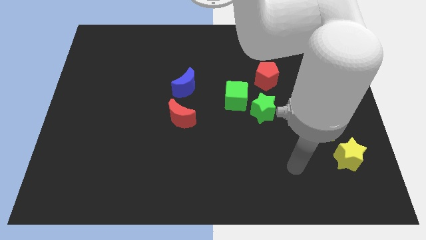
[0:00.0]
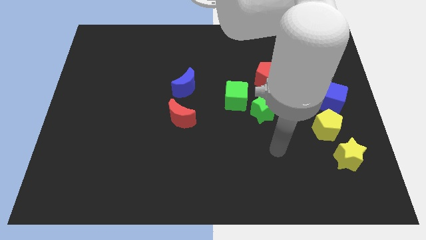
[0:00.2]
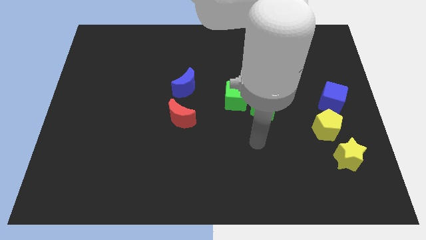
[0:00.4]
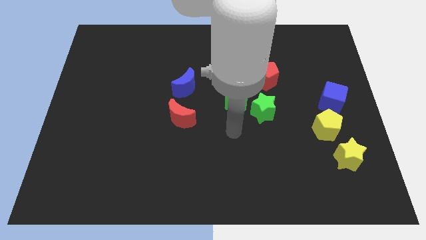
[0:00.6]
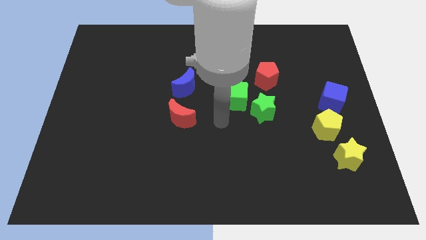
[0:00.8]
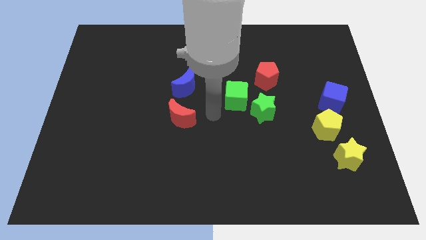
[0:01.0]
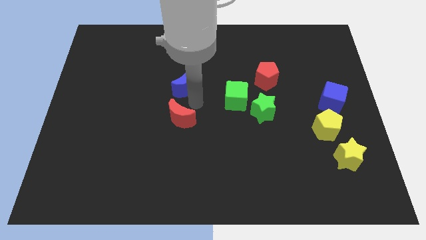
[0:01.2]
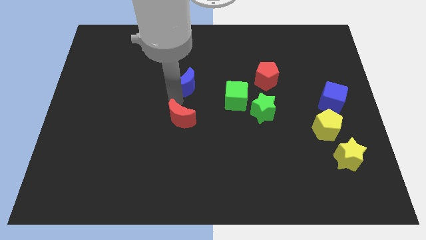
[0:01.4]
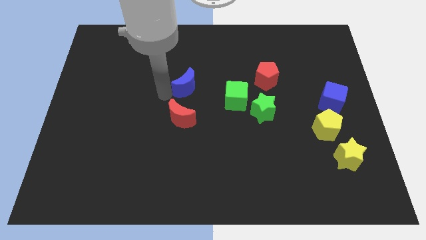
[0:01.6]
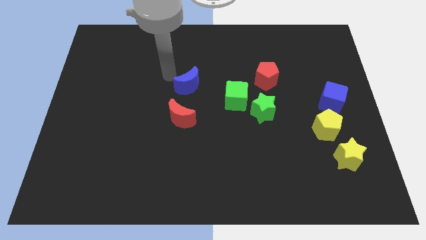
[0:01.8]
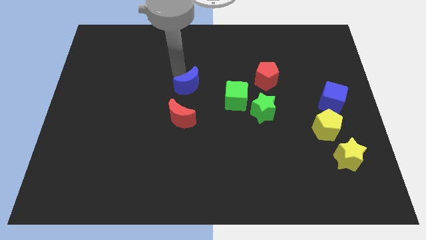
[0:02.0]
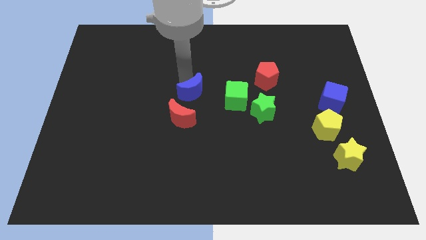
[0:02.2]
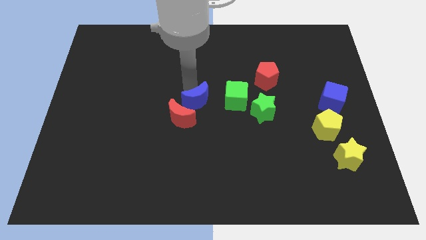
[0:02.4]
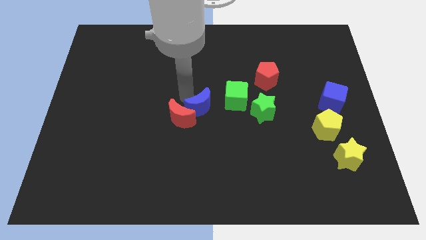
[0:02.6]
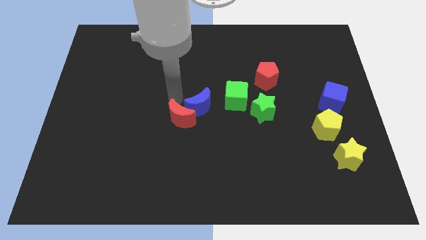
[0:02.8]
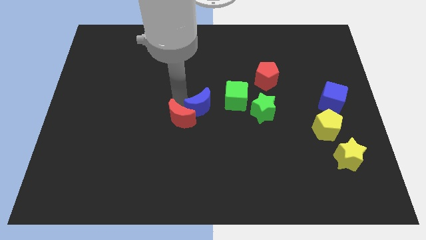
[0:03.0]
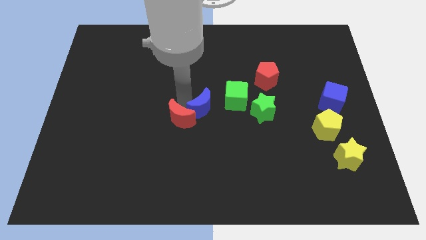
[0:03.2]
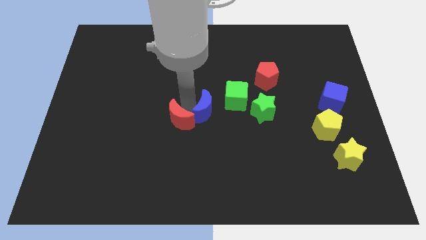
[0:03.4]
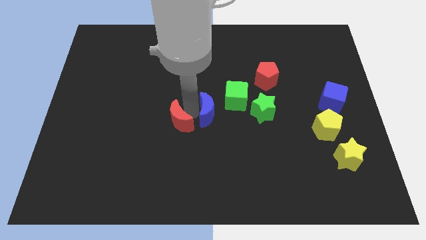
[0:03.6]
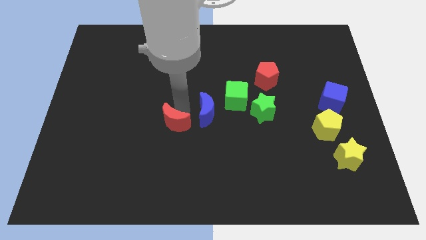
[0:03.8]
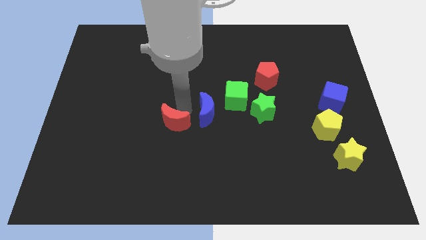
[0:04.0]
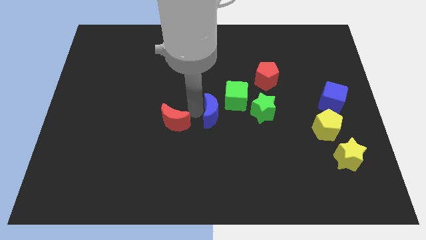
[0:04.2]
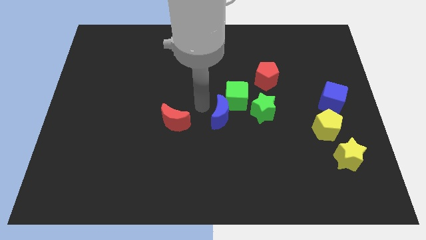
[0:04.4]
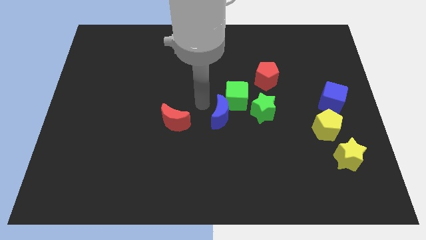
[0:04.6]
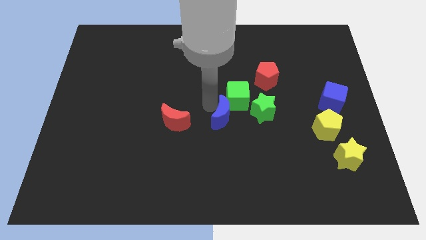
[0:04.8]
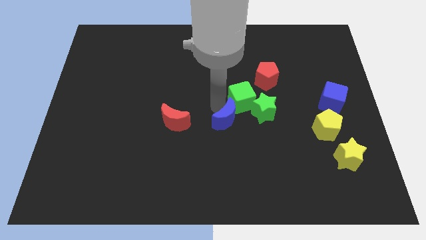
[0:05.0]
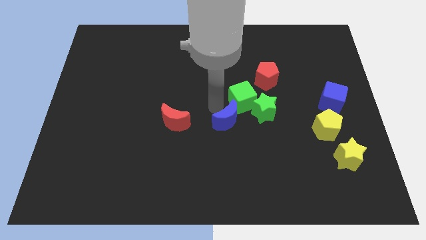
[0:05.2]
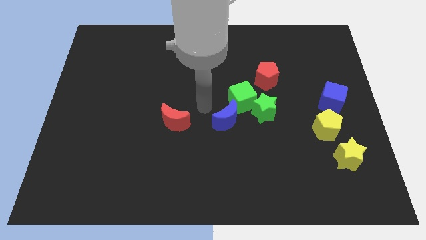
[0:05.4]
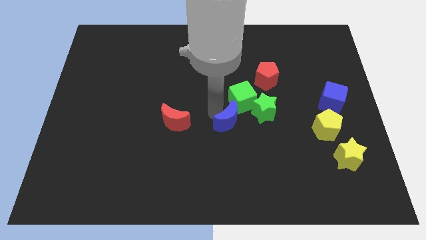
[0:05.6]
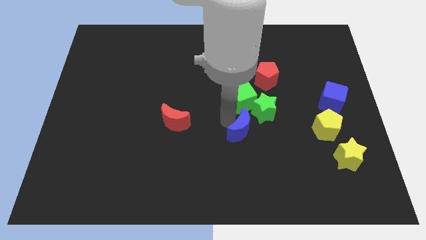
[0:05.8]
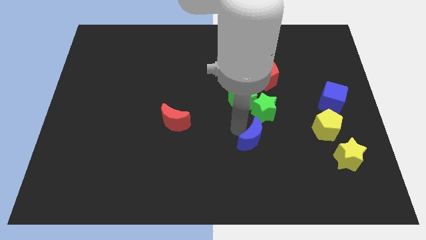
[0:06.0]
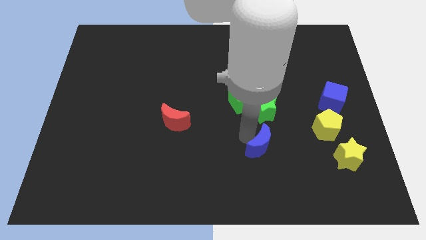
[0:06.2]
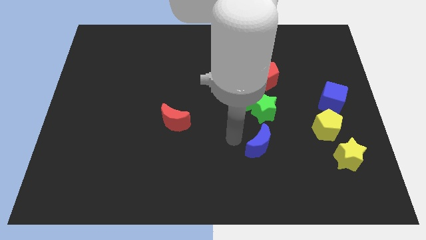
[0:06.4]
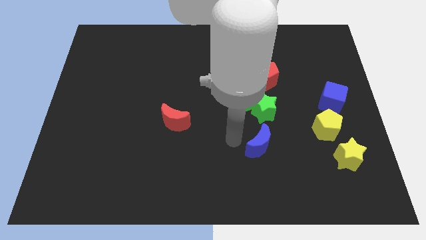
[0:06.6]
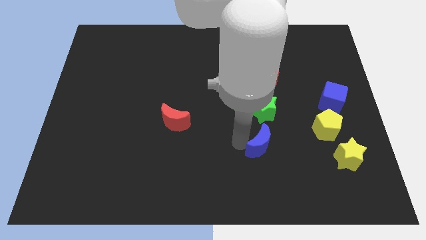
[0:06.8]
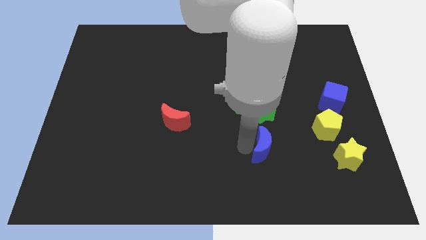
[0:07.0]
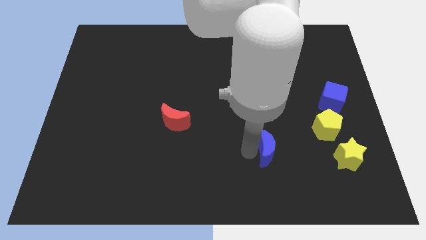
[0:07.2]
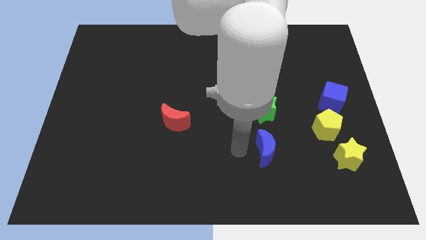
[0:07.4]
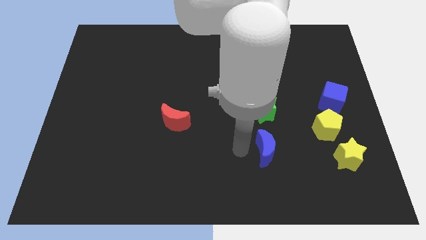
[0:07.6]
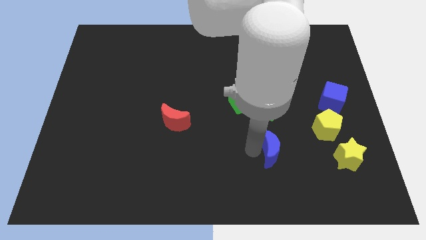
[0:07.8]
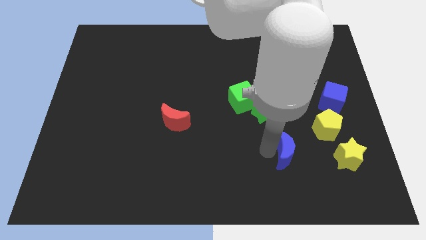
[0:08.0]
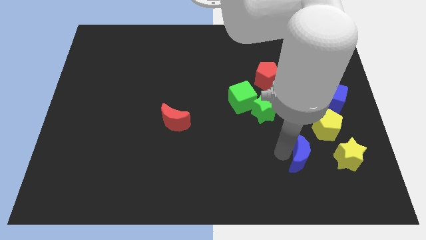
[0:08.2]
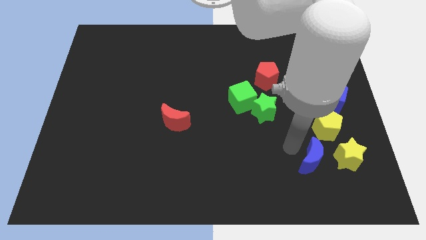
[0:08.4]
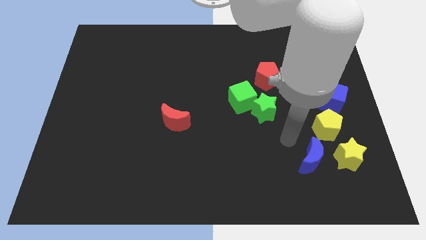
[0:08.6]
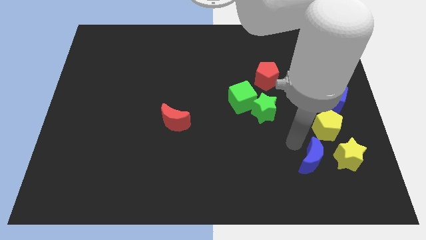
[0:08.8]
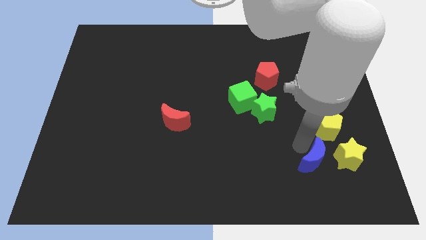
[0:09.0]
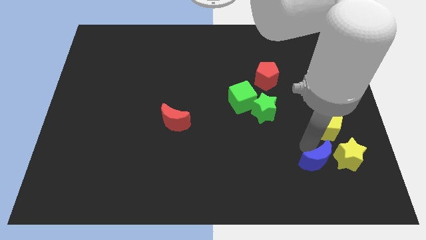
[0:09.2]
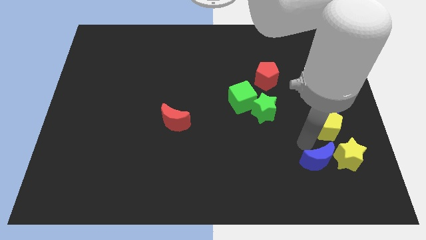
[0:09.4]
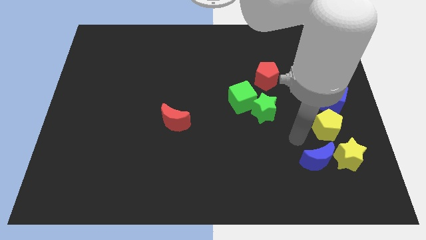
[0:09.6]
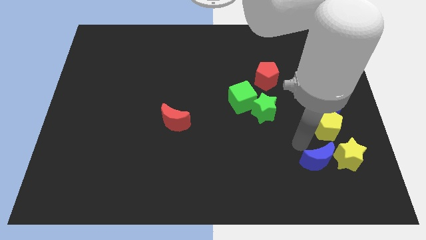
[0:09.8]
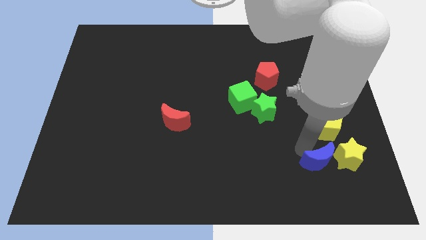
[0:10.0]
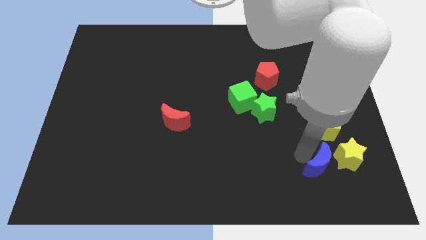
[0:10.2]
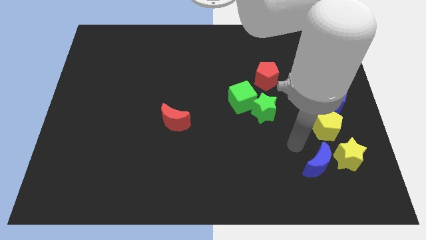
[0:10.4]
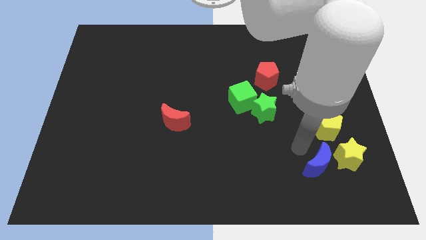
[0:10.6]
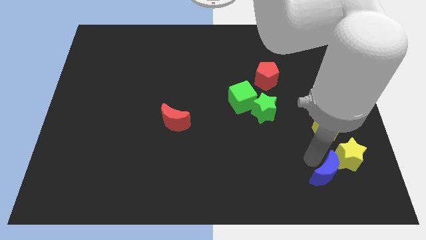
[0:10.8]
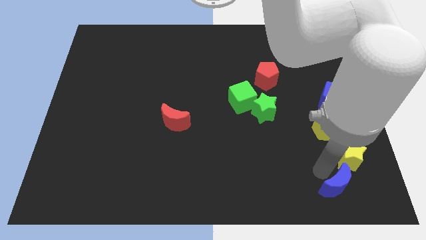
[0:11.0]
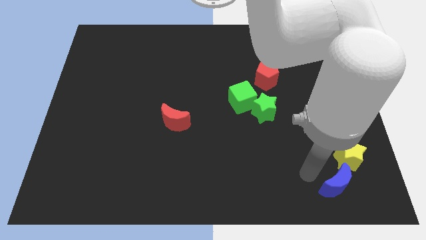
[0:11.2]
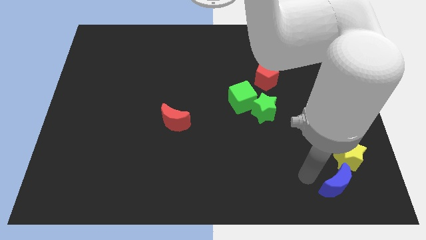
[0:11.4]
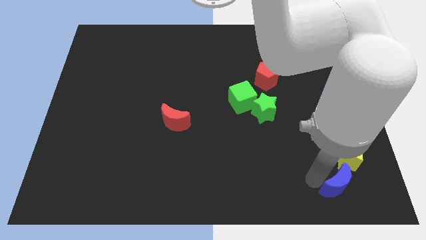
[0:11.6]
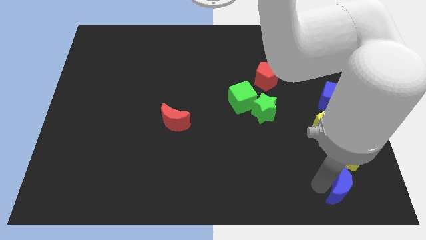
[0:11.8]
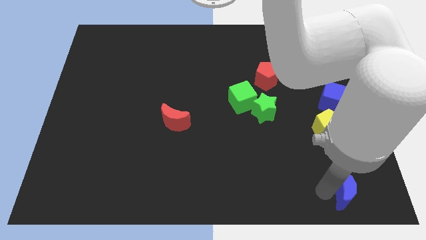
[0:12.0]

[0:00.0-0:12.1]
push the blue moon to the bottom right corner

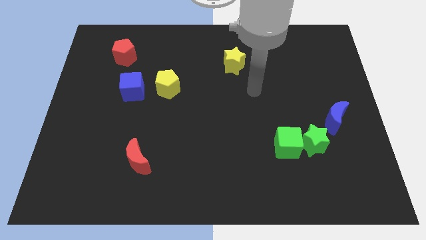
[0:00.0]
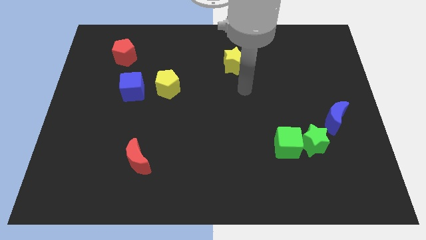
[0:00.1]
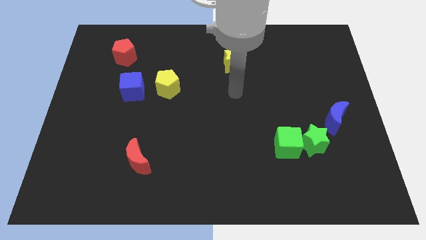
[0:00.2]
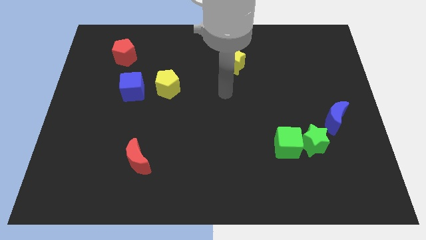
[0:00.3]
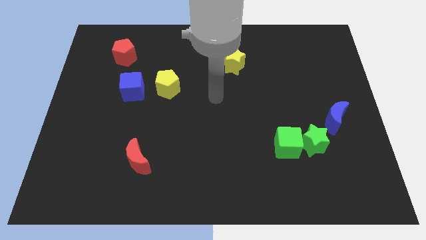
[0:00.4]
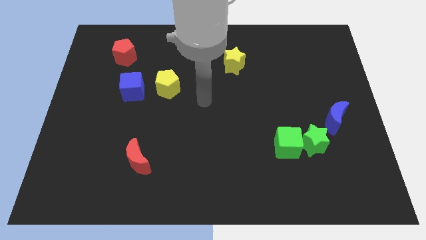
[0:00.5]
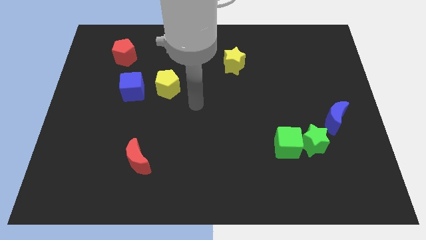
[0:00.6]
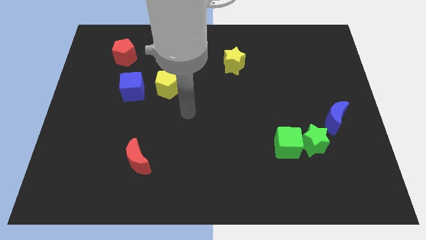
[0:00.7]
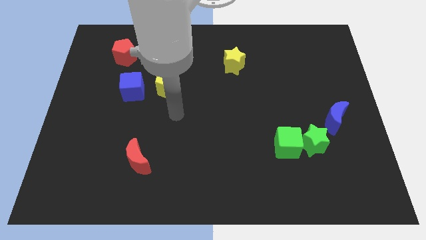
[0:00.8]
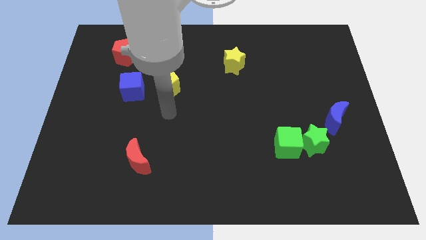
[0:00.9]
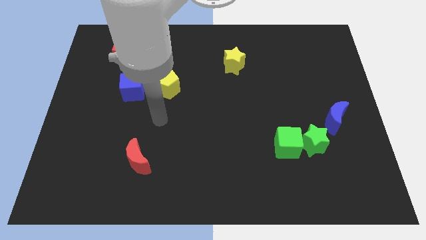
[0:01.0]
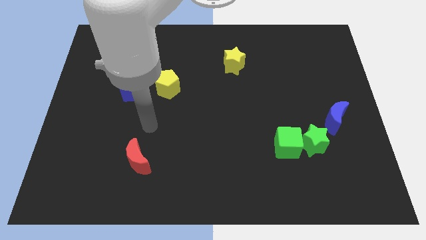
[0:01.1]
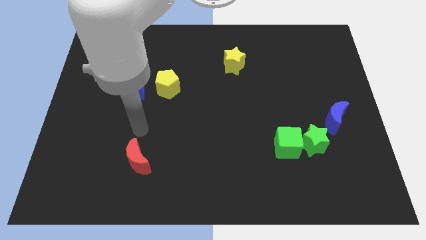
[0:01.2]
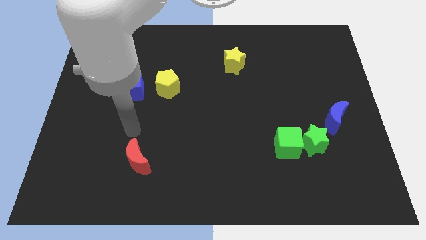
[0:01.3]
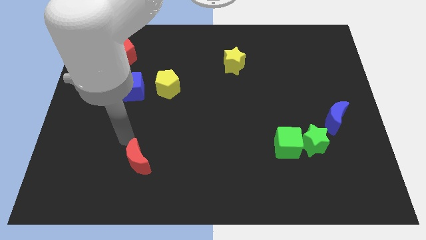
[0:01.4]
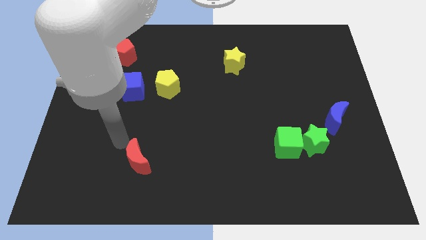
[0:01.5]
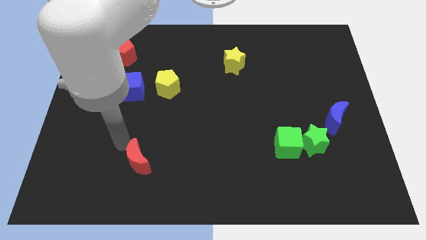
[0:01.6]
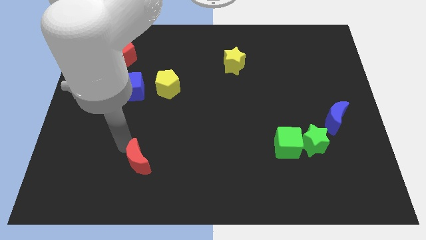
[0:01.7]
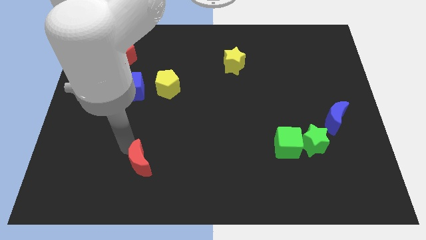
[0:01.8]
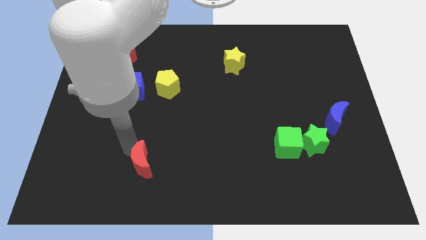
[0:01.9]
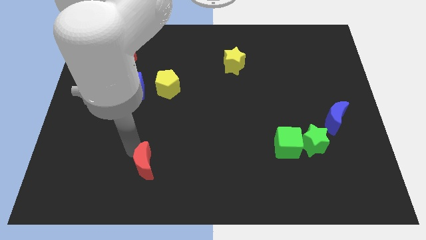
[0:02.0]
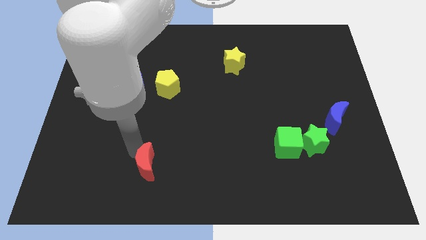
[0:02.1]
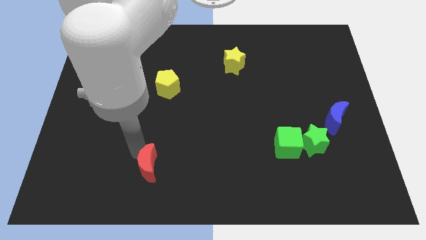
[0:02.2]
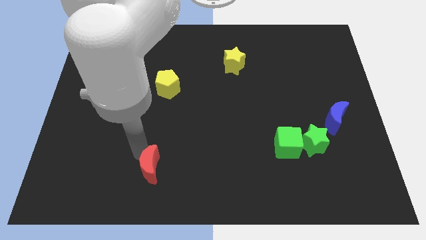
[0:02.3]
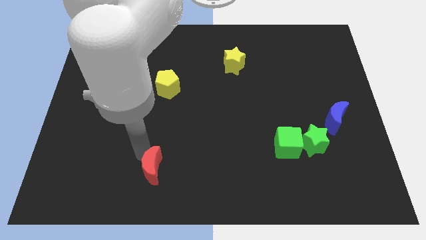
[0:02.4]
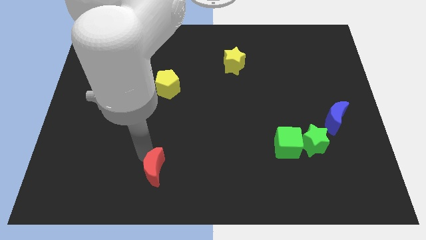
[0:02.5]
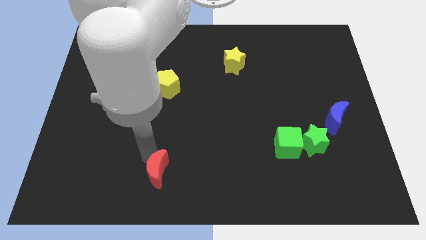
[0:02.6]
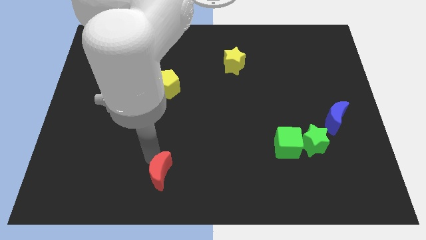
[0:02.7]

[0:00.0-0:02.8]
put the red moon to the bottom
